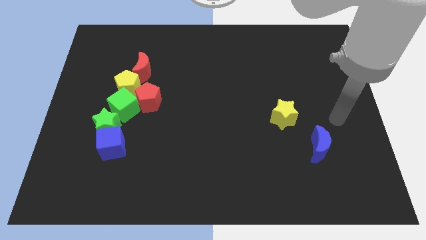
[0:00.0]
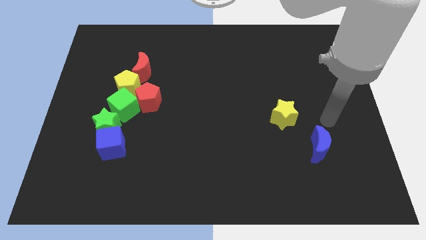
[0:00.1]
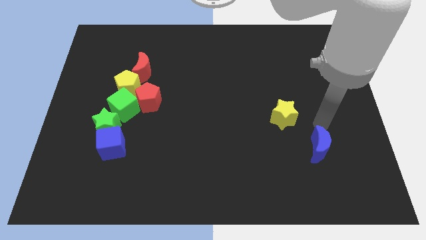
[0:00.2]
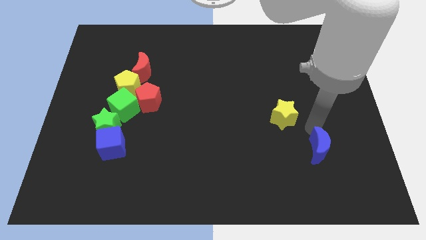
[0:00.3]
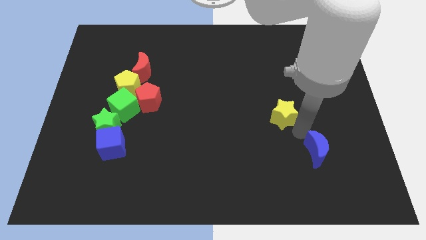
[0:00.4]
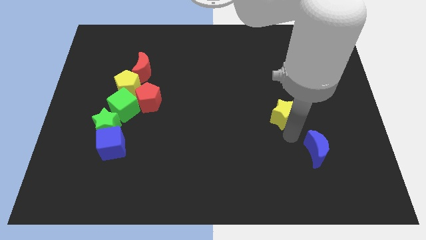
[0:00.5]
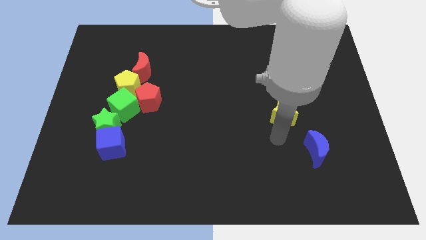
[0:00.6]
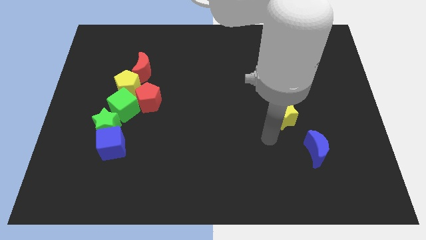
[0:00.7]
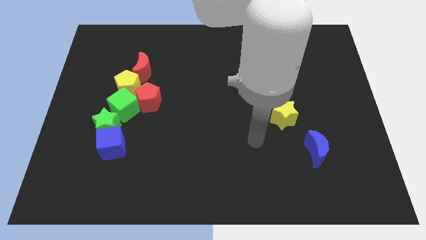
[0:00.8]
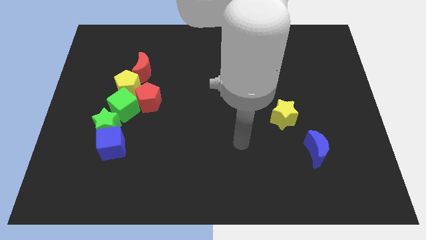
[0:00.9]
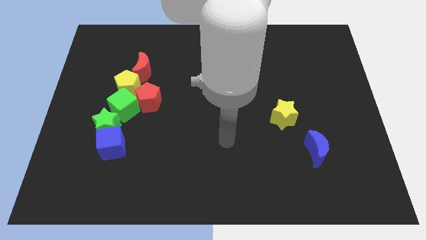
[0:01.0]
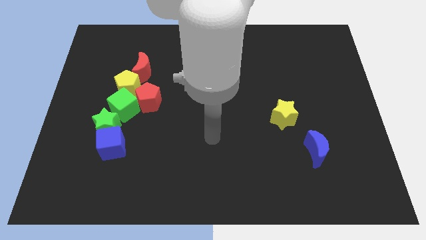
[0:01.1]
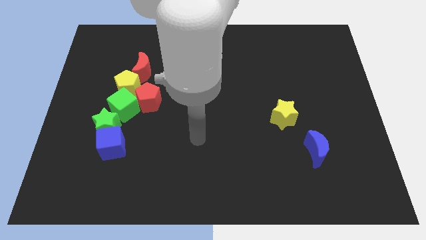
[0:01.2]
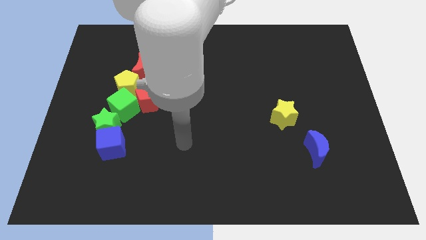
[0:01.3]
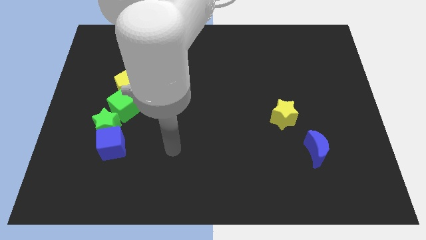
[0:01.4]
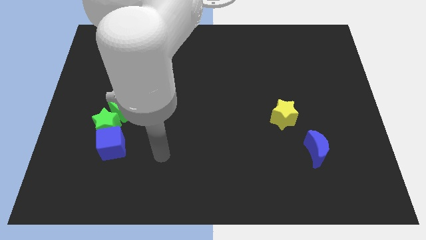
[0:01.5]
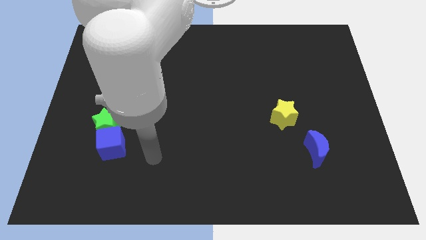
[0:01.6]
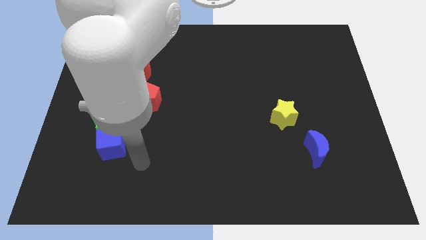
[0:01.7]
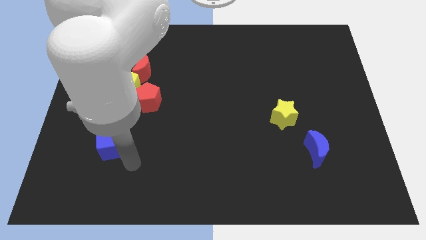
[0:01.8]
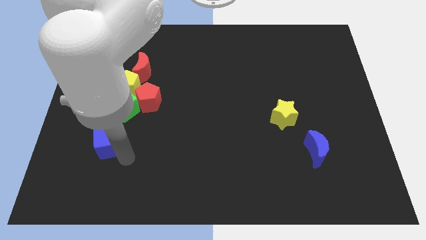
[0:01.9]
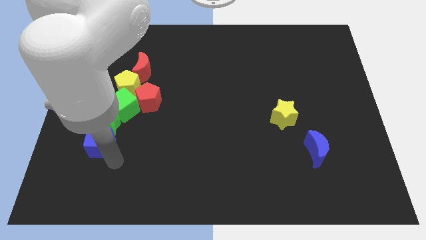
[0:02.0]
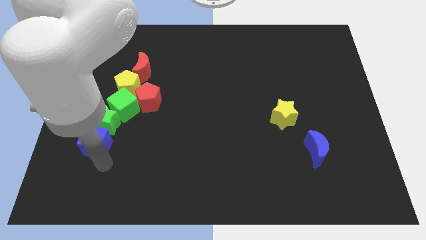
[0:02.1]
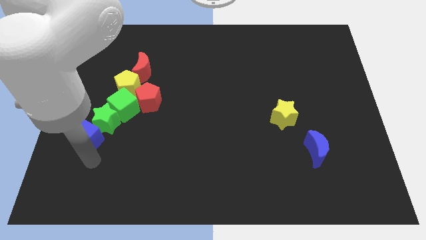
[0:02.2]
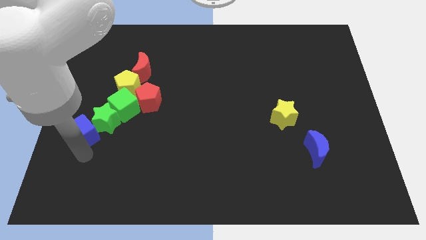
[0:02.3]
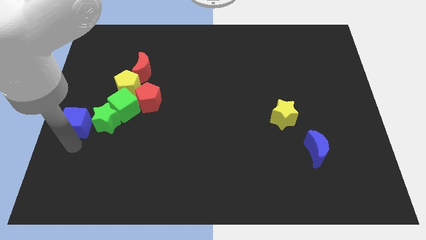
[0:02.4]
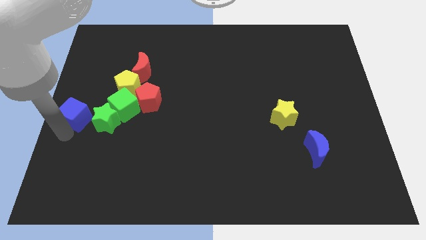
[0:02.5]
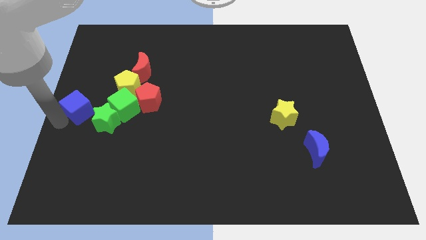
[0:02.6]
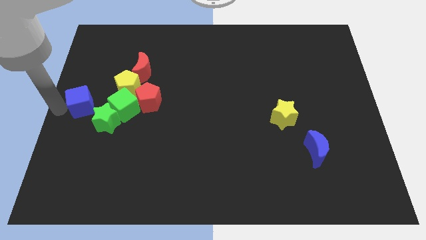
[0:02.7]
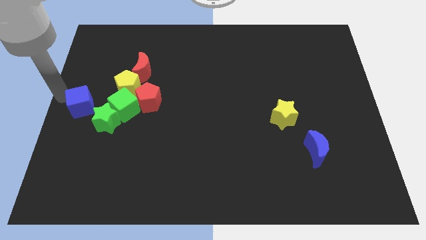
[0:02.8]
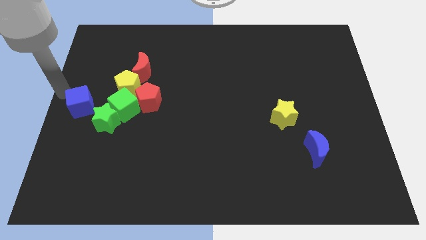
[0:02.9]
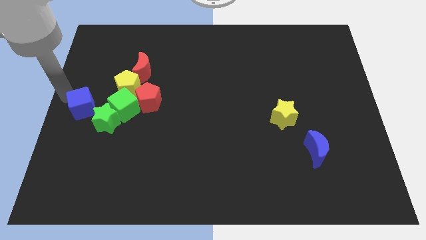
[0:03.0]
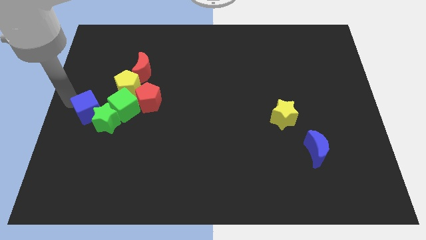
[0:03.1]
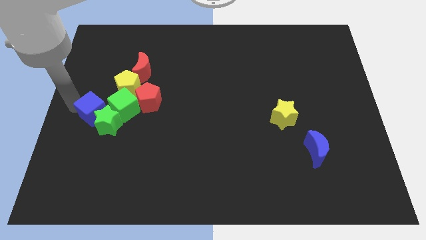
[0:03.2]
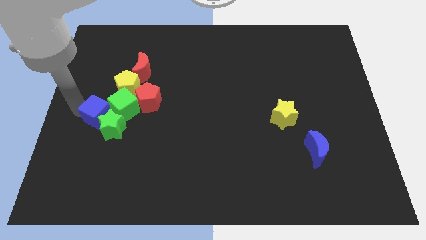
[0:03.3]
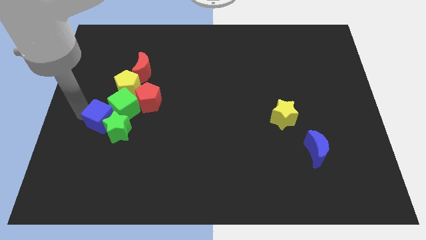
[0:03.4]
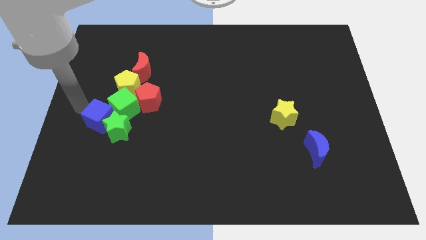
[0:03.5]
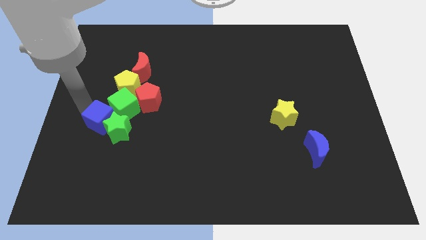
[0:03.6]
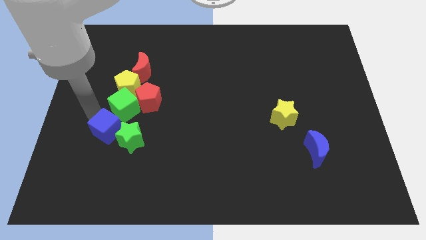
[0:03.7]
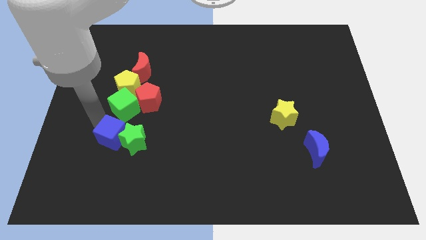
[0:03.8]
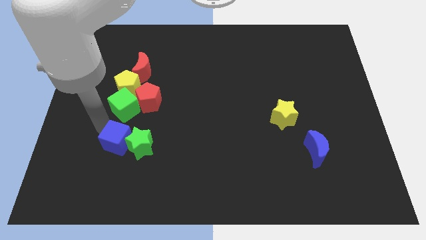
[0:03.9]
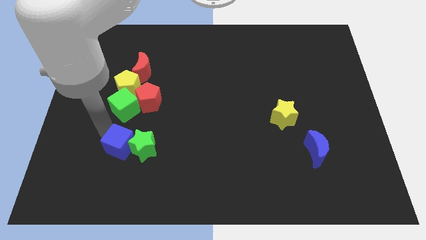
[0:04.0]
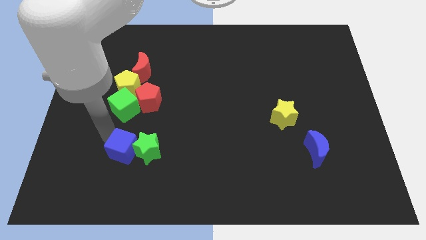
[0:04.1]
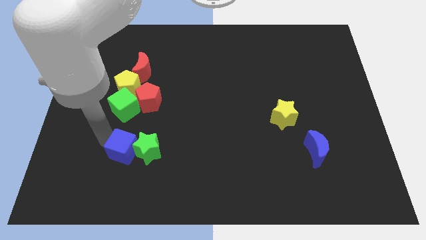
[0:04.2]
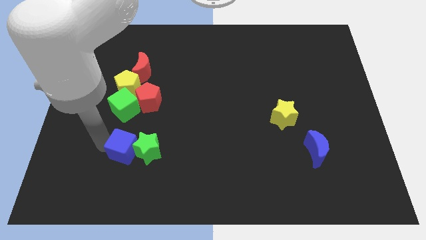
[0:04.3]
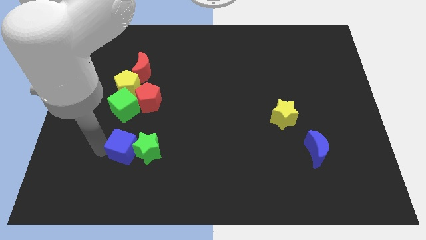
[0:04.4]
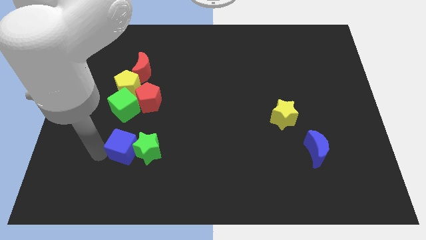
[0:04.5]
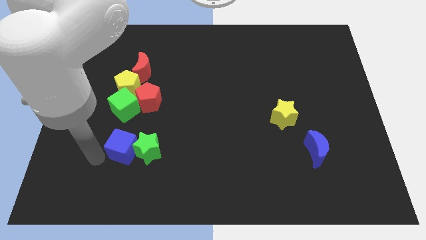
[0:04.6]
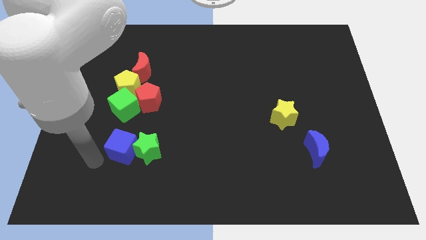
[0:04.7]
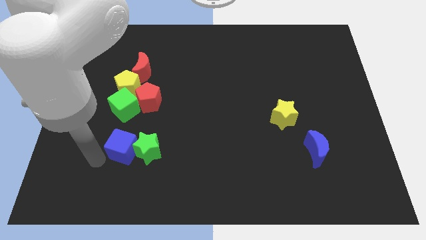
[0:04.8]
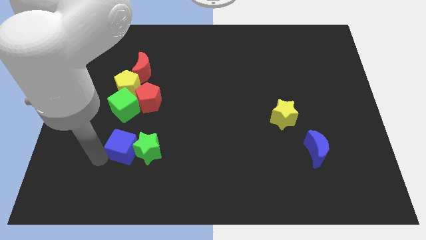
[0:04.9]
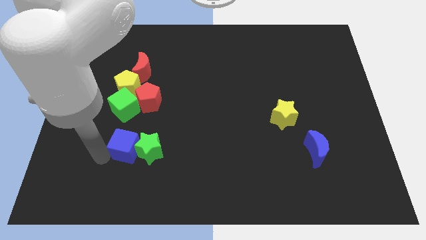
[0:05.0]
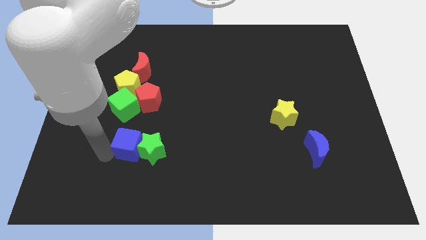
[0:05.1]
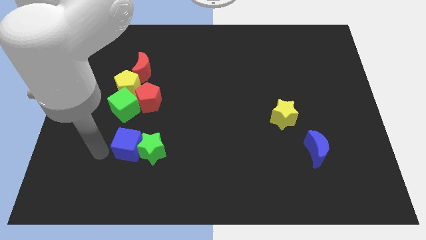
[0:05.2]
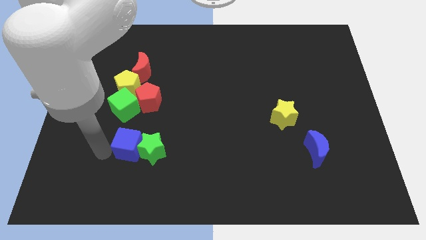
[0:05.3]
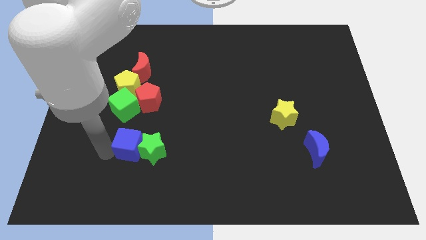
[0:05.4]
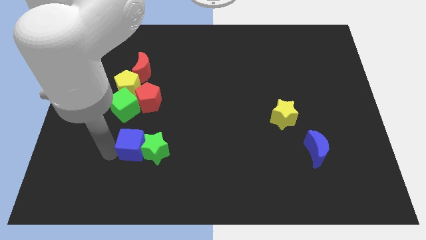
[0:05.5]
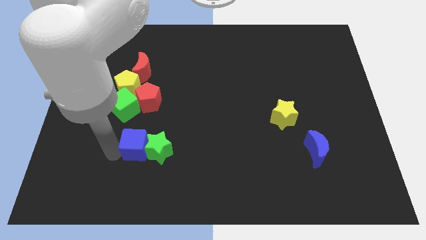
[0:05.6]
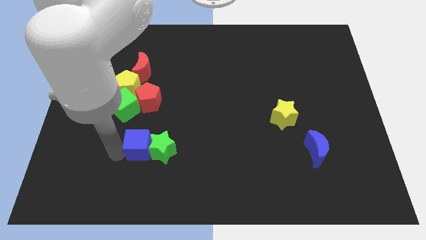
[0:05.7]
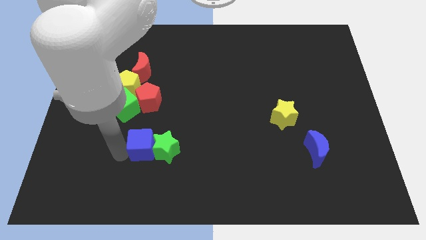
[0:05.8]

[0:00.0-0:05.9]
slide the blue cube right a little bit

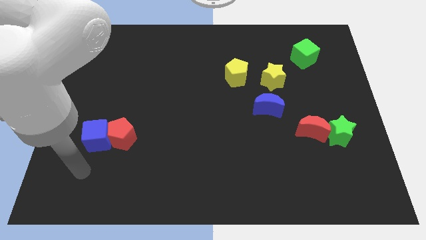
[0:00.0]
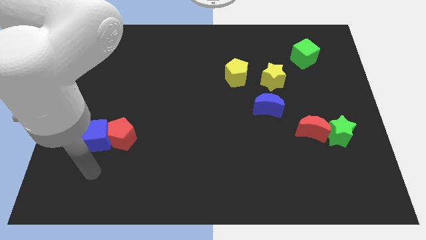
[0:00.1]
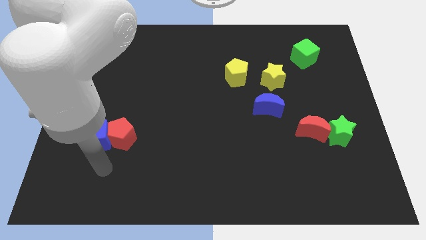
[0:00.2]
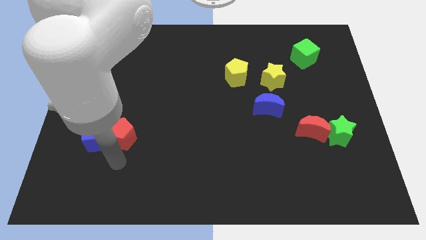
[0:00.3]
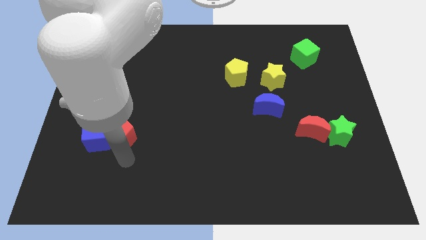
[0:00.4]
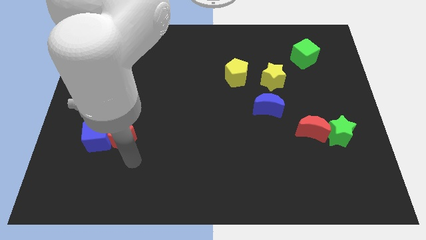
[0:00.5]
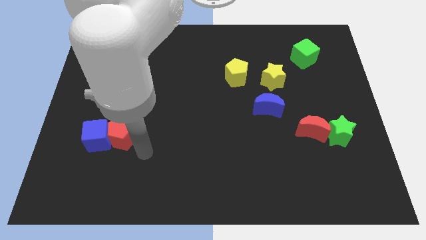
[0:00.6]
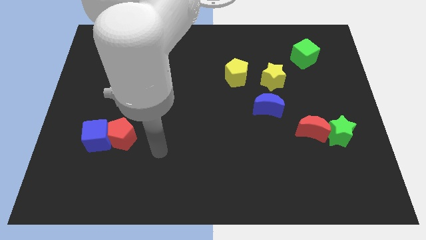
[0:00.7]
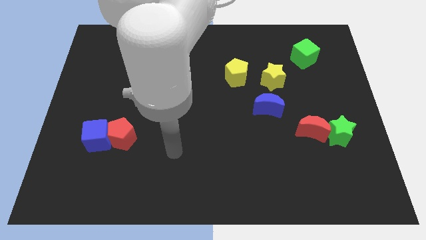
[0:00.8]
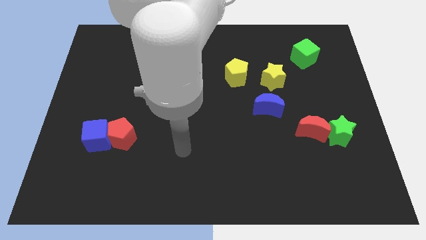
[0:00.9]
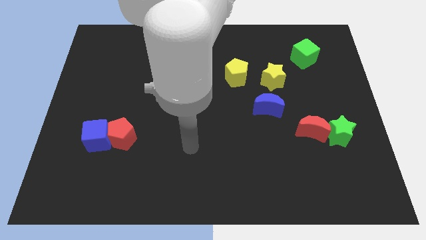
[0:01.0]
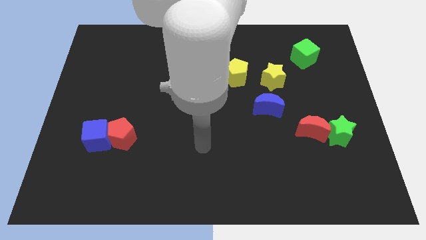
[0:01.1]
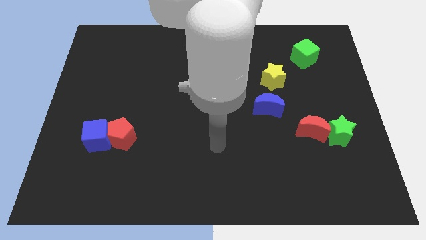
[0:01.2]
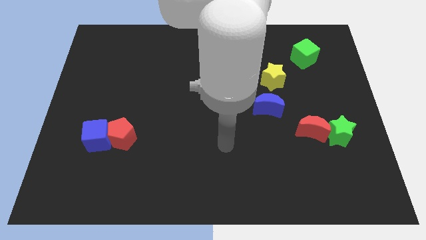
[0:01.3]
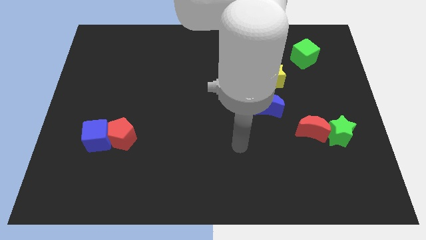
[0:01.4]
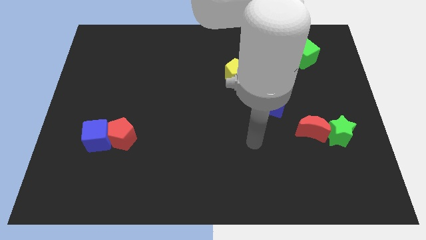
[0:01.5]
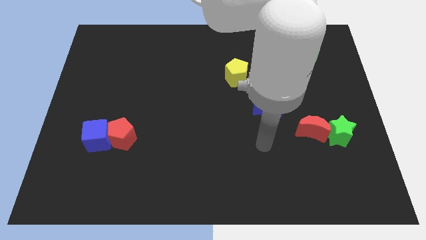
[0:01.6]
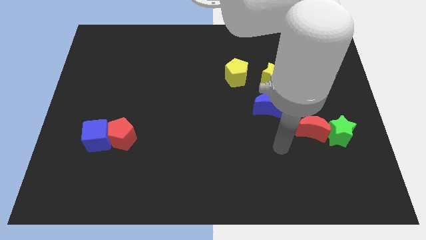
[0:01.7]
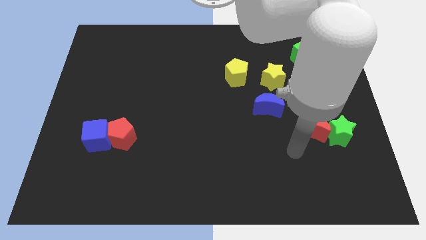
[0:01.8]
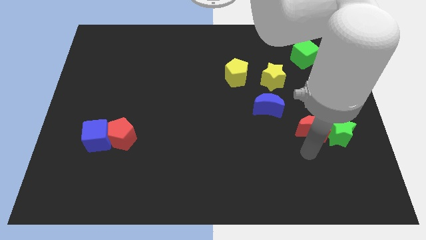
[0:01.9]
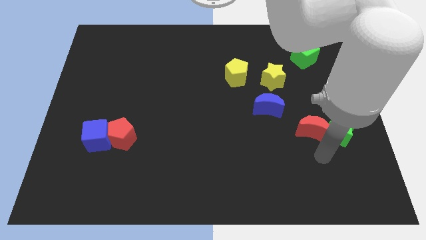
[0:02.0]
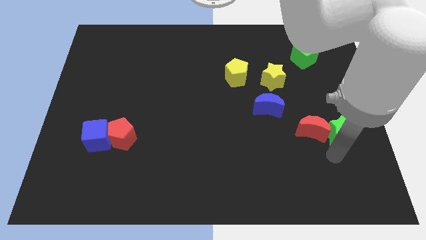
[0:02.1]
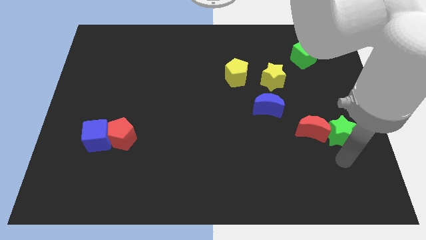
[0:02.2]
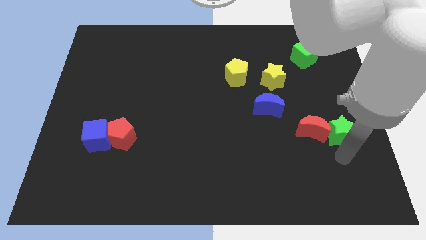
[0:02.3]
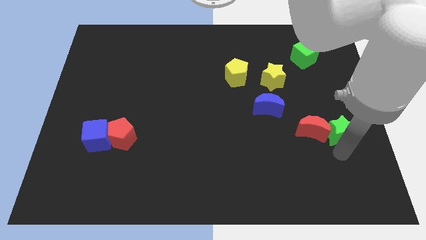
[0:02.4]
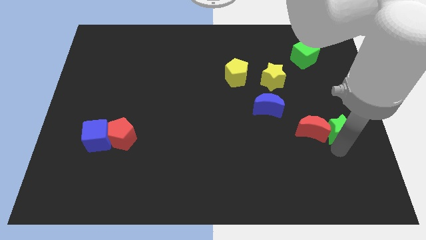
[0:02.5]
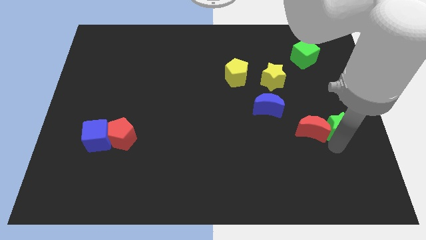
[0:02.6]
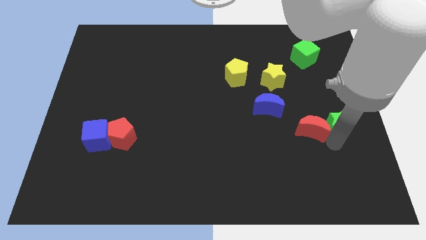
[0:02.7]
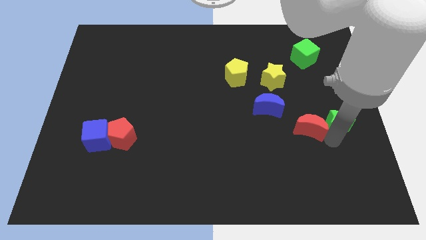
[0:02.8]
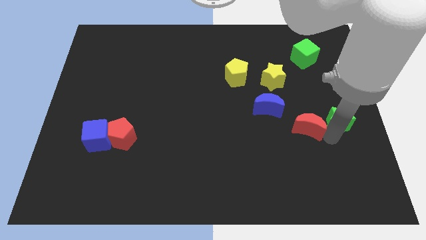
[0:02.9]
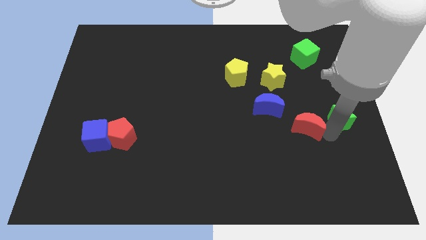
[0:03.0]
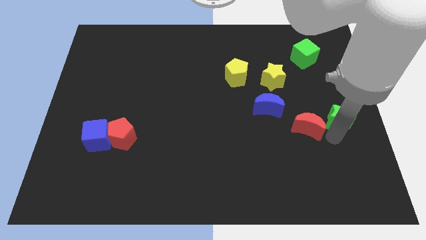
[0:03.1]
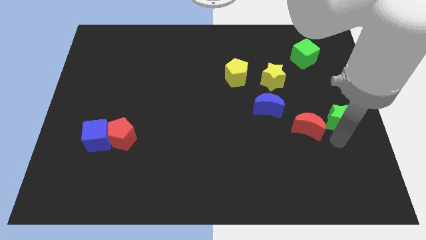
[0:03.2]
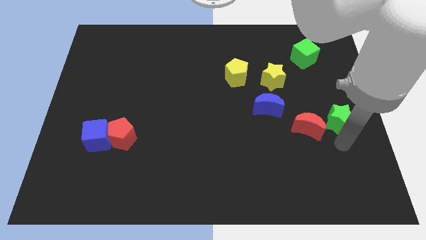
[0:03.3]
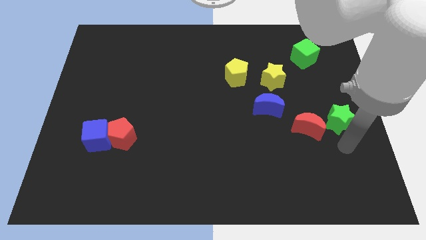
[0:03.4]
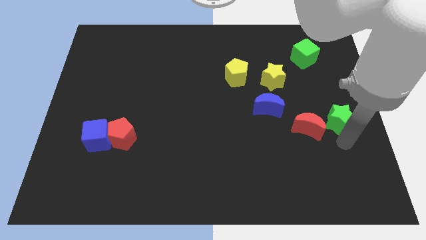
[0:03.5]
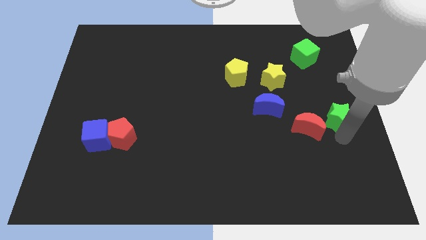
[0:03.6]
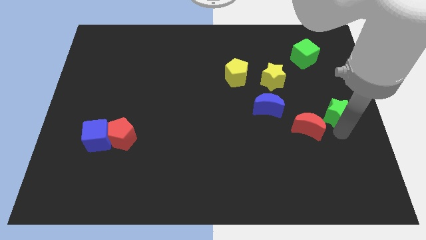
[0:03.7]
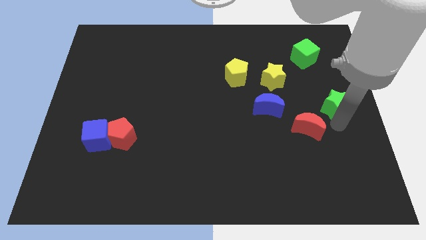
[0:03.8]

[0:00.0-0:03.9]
slide the green star a little upwards
